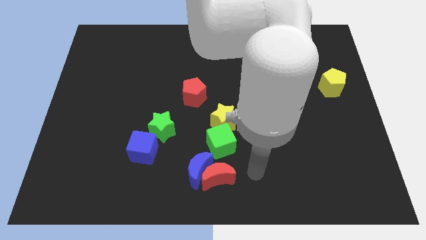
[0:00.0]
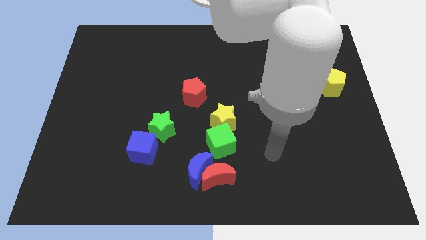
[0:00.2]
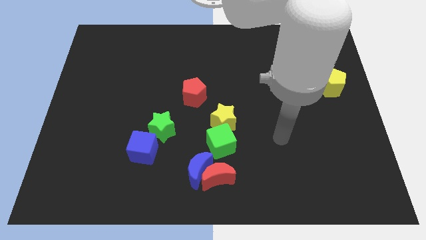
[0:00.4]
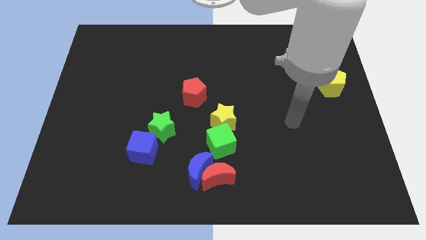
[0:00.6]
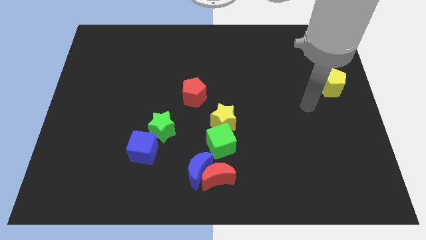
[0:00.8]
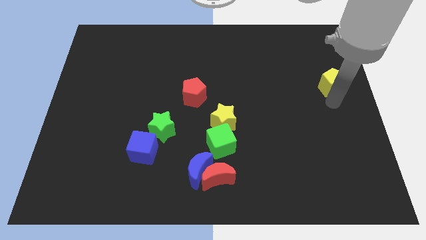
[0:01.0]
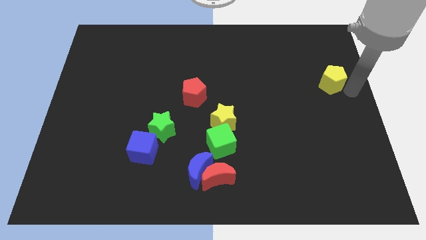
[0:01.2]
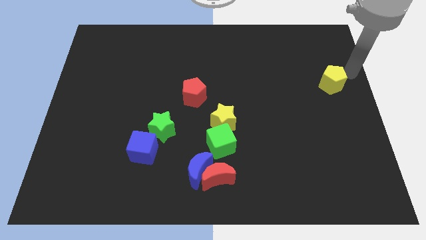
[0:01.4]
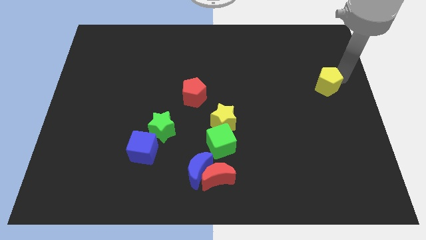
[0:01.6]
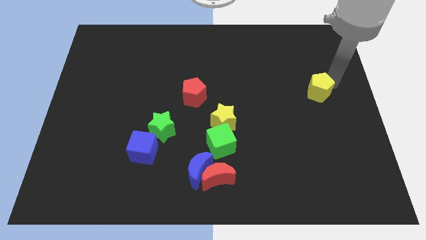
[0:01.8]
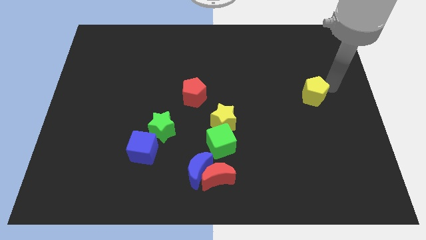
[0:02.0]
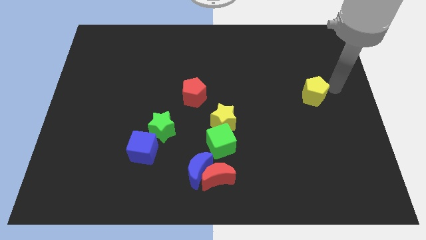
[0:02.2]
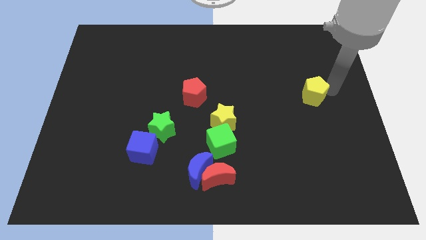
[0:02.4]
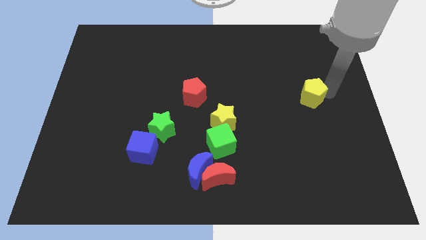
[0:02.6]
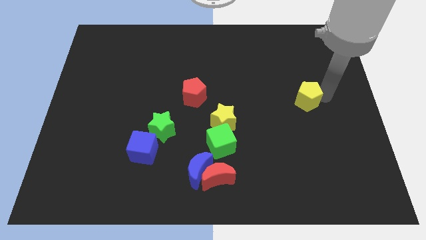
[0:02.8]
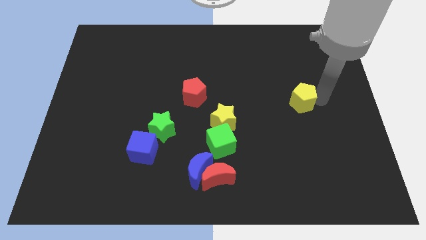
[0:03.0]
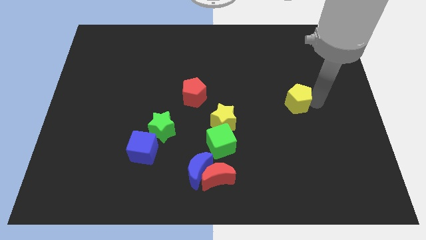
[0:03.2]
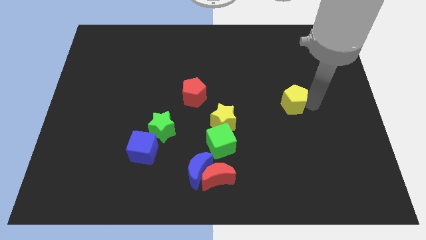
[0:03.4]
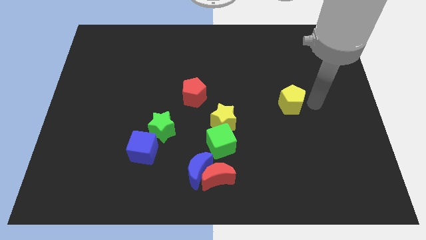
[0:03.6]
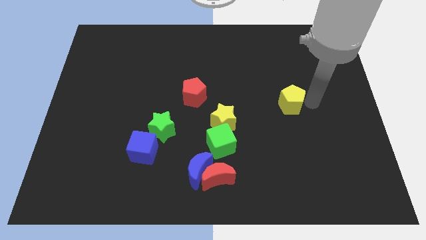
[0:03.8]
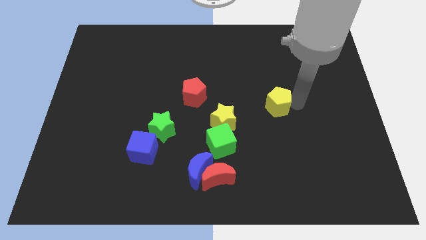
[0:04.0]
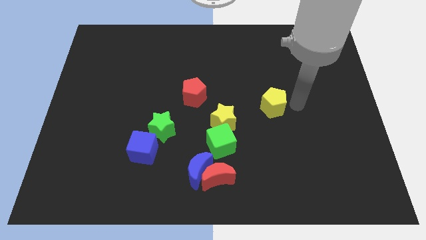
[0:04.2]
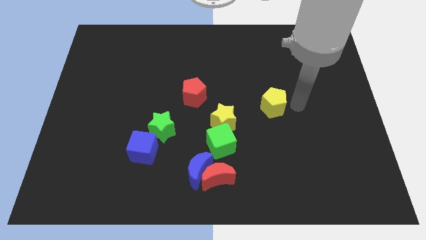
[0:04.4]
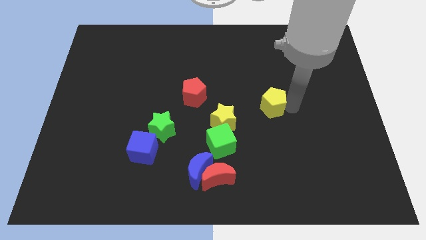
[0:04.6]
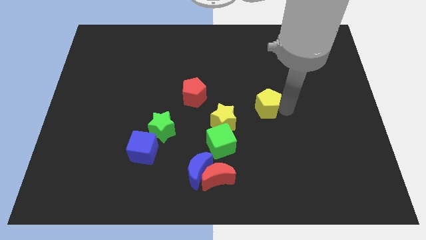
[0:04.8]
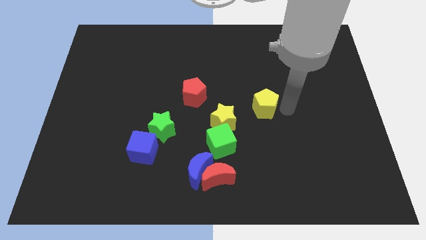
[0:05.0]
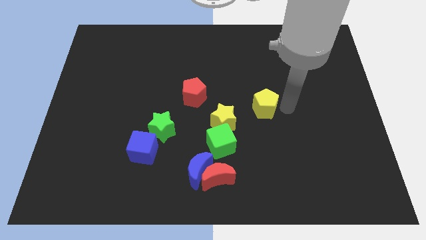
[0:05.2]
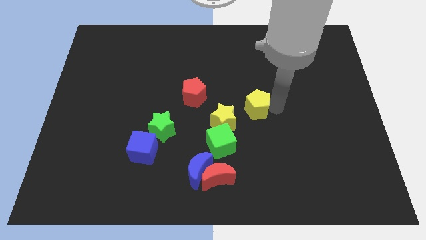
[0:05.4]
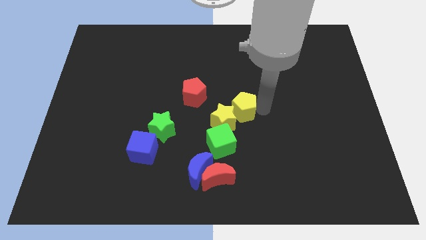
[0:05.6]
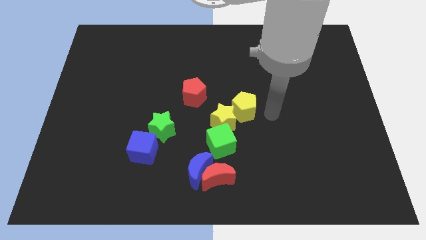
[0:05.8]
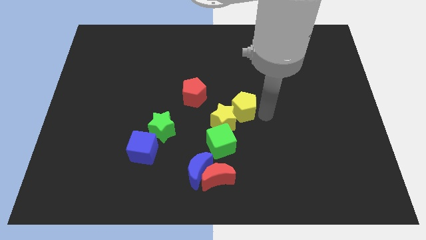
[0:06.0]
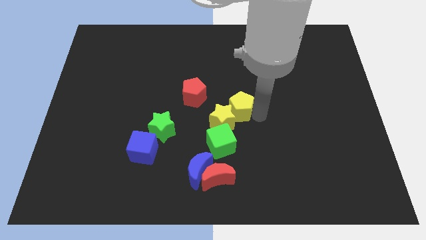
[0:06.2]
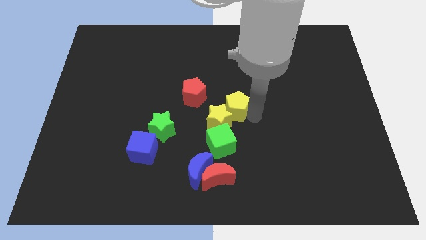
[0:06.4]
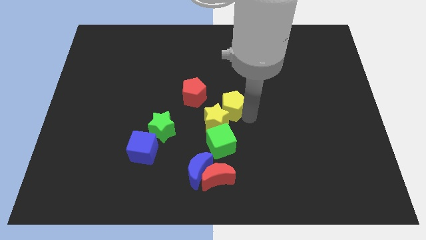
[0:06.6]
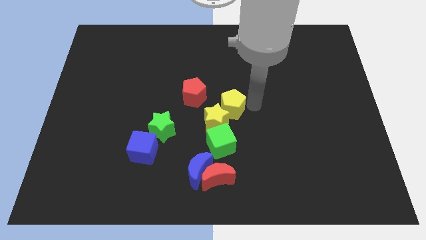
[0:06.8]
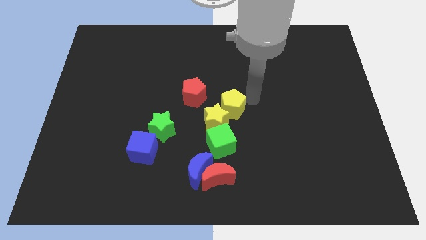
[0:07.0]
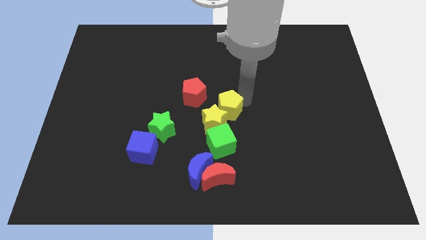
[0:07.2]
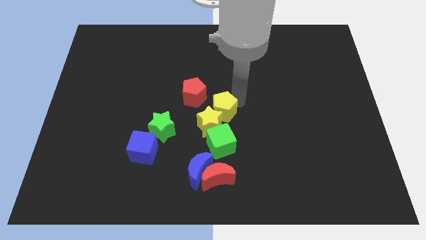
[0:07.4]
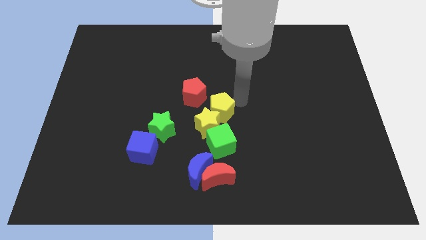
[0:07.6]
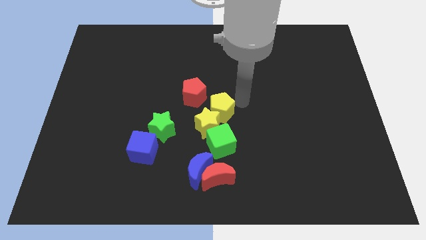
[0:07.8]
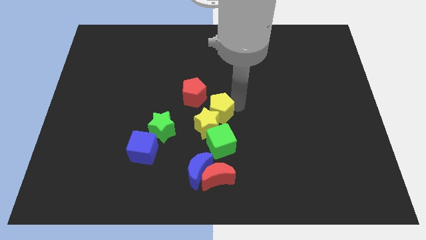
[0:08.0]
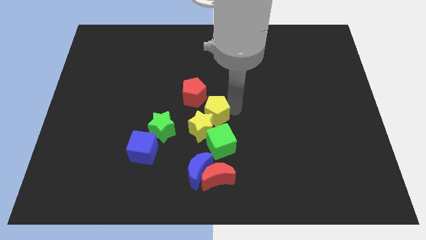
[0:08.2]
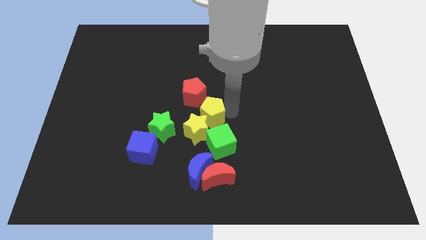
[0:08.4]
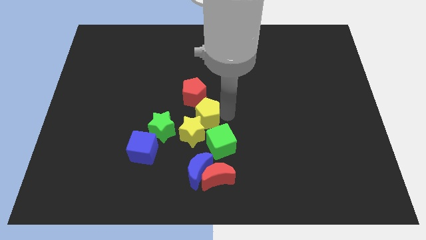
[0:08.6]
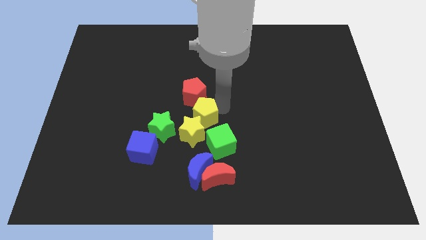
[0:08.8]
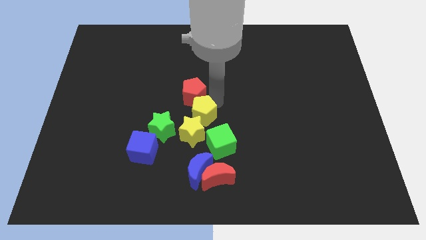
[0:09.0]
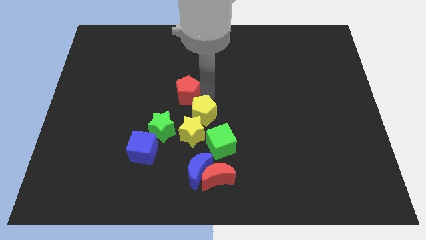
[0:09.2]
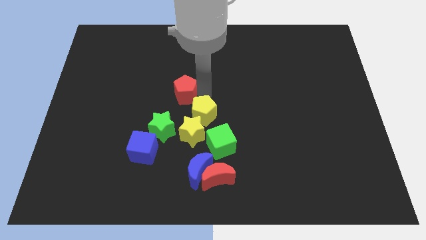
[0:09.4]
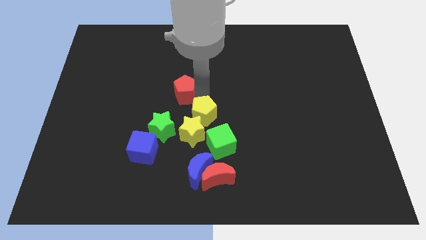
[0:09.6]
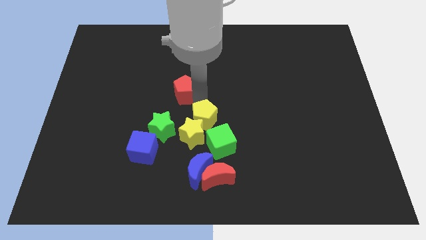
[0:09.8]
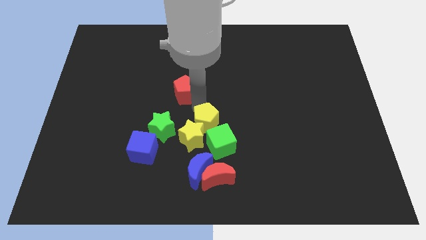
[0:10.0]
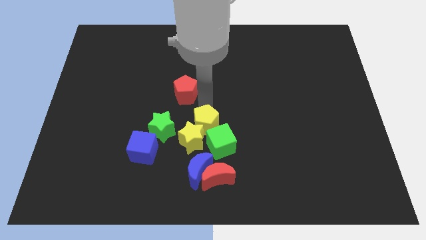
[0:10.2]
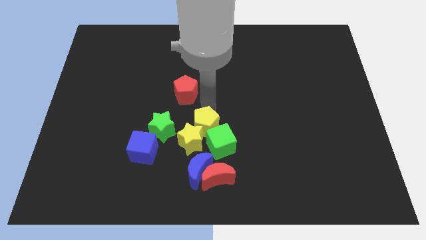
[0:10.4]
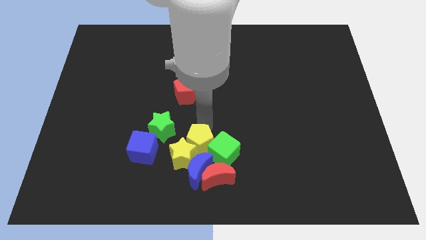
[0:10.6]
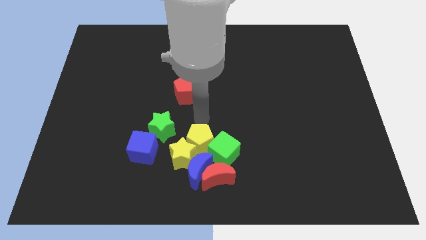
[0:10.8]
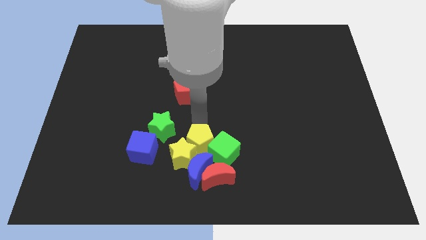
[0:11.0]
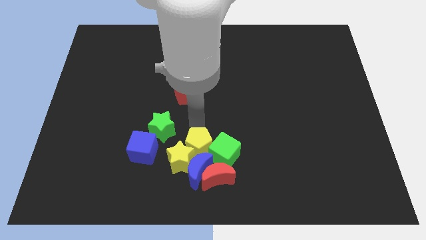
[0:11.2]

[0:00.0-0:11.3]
push the yellow pentagon close to the blue moon

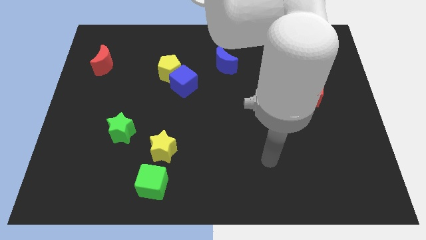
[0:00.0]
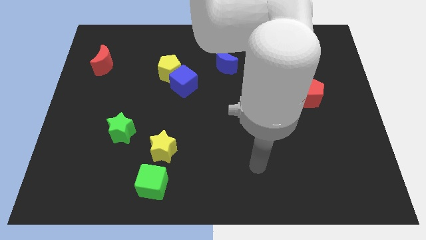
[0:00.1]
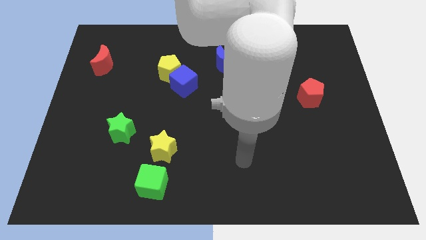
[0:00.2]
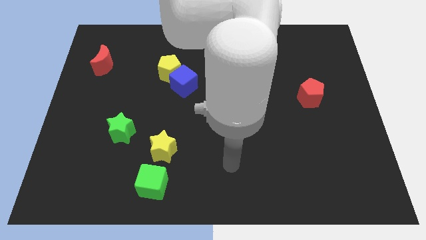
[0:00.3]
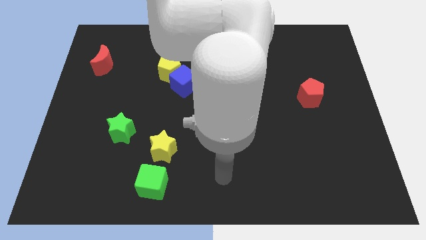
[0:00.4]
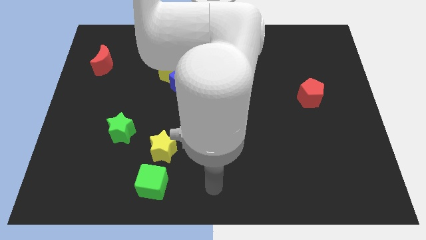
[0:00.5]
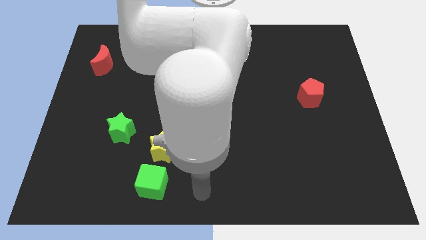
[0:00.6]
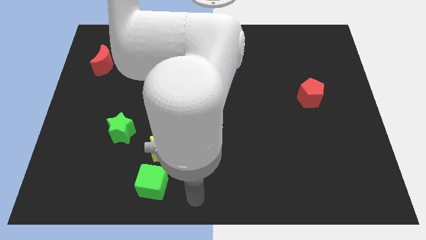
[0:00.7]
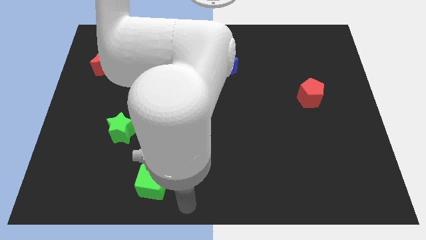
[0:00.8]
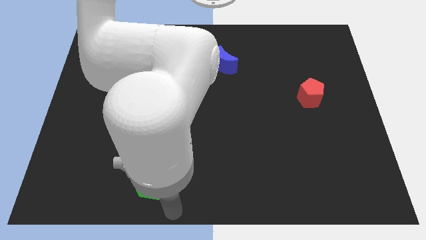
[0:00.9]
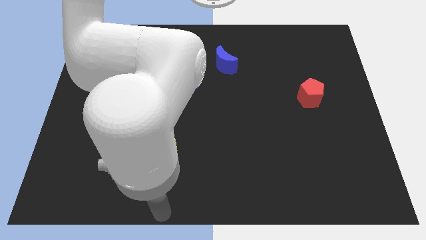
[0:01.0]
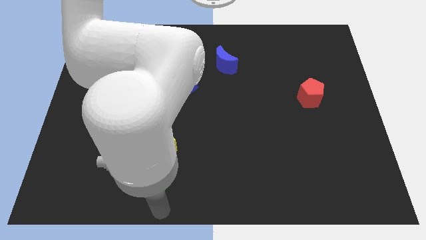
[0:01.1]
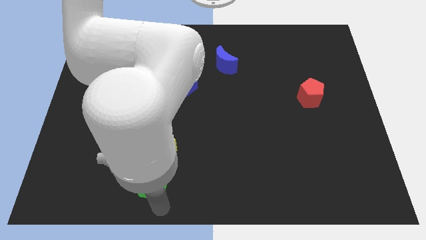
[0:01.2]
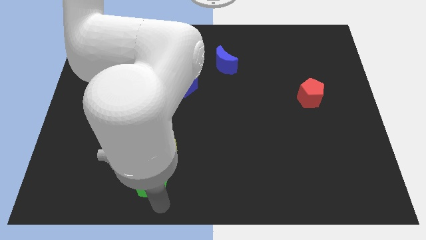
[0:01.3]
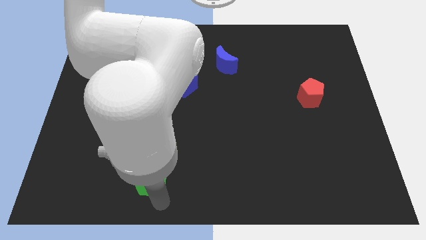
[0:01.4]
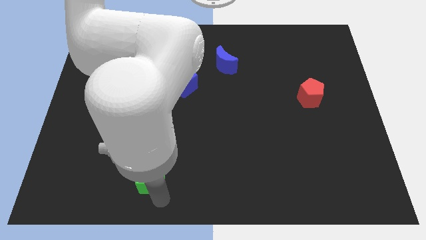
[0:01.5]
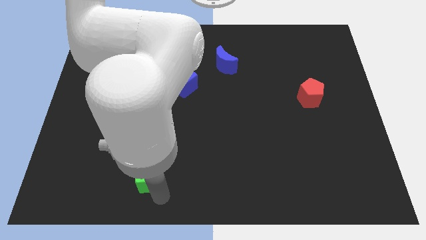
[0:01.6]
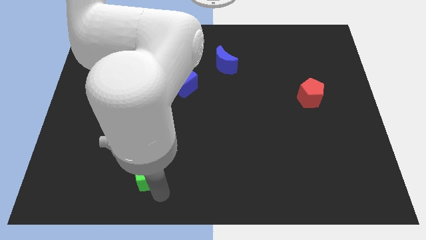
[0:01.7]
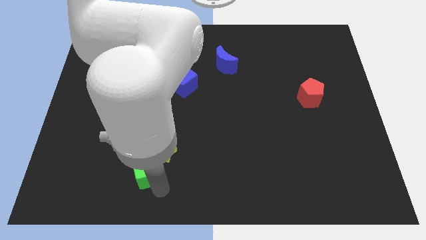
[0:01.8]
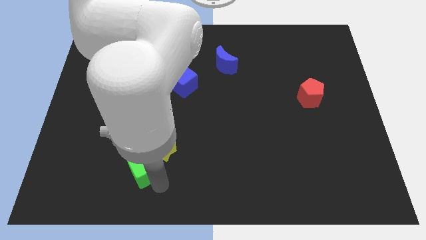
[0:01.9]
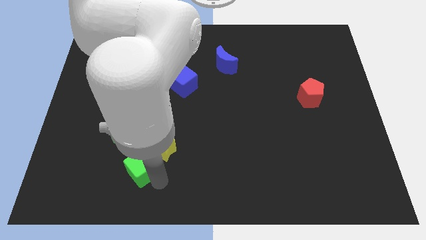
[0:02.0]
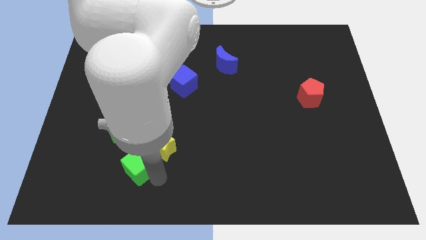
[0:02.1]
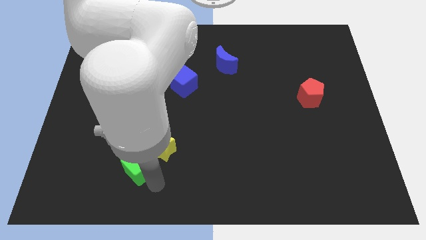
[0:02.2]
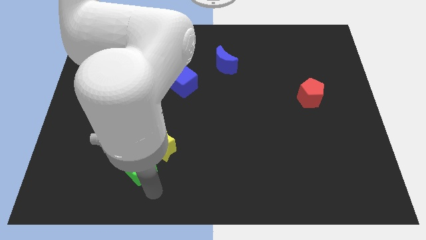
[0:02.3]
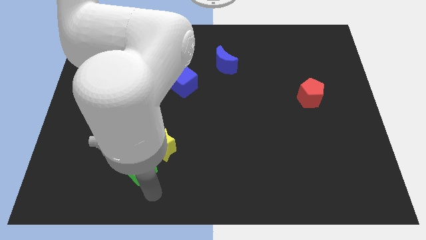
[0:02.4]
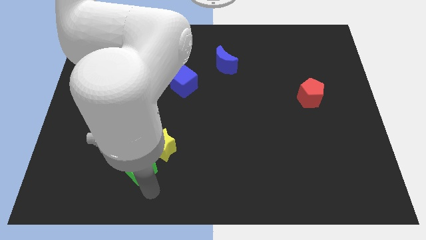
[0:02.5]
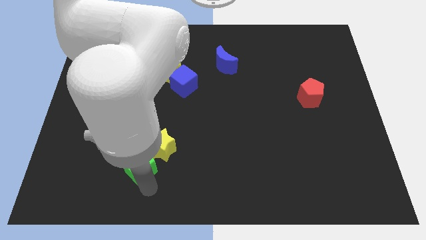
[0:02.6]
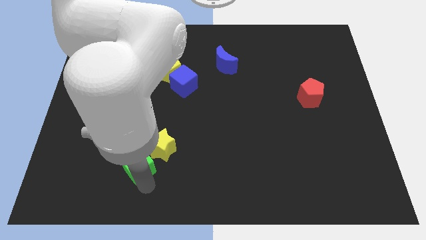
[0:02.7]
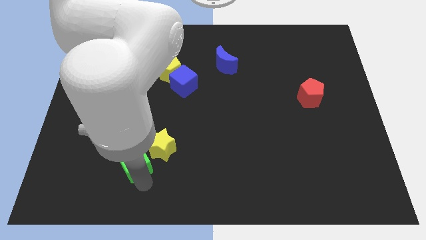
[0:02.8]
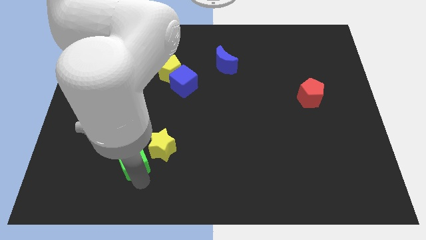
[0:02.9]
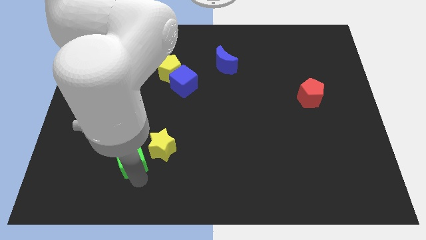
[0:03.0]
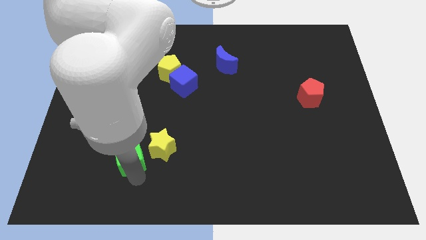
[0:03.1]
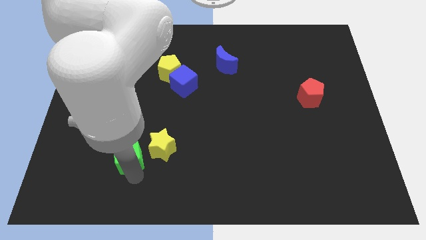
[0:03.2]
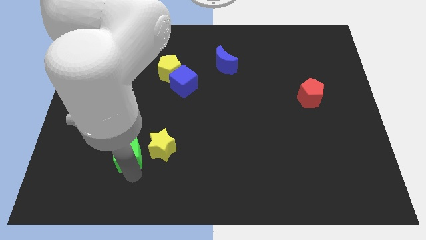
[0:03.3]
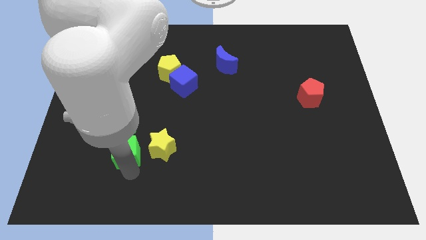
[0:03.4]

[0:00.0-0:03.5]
put the green cube close to the green star
